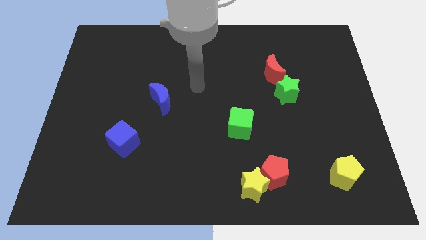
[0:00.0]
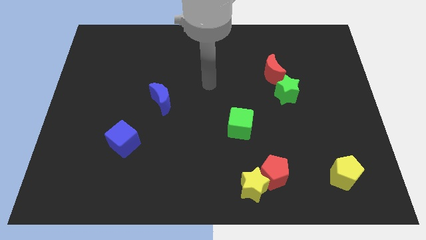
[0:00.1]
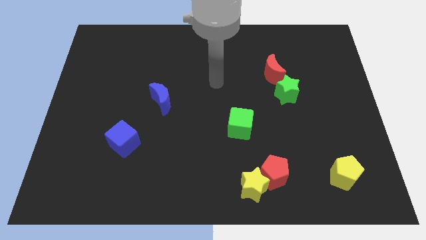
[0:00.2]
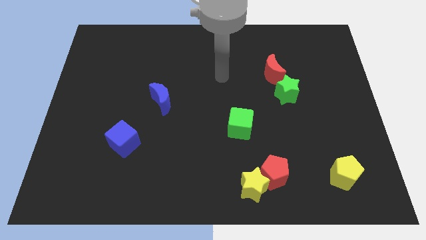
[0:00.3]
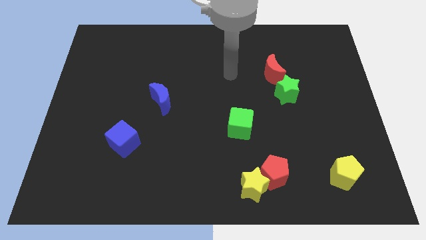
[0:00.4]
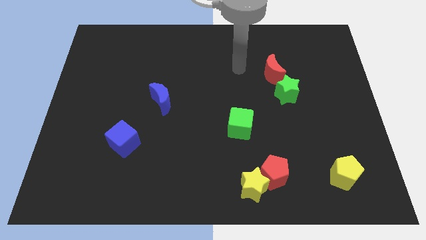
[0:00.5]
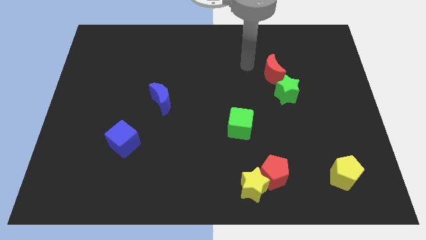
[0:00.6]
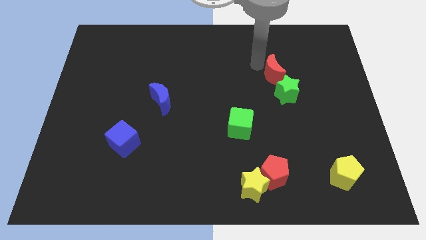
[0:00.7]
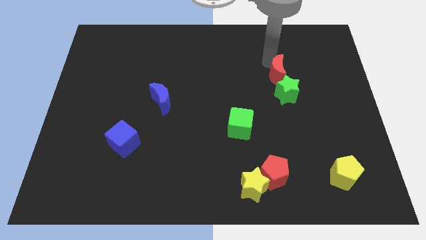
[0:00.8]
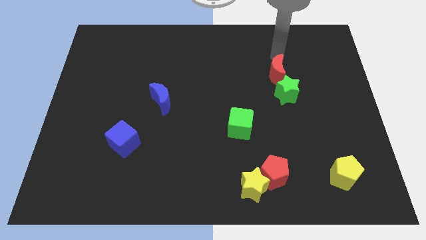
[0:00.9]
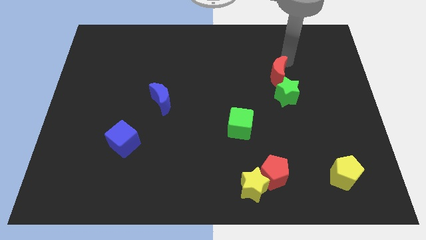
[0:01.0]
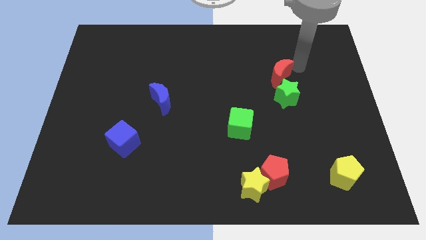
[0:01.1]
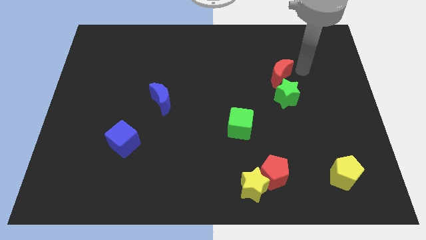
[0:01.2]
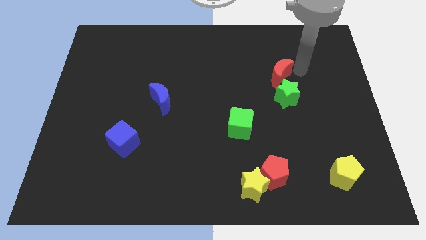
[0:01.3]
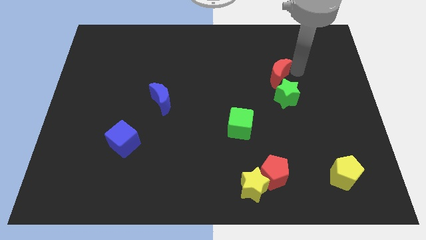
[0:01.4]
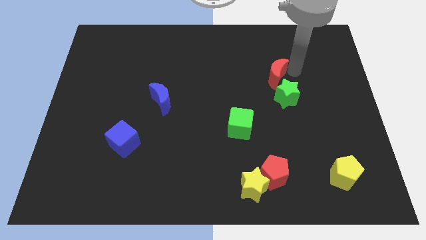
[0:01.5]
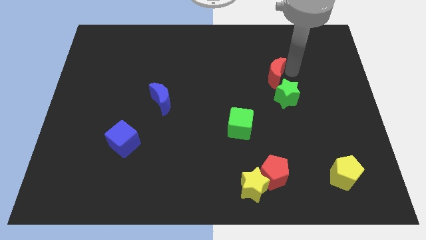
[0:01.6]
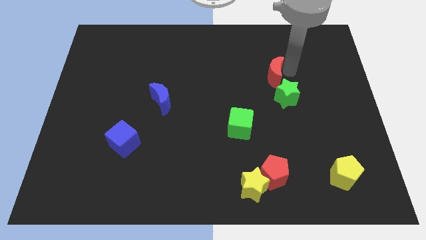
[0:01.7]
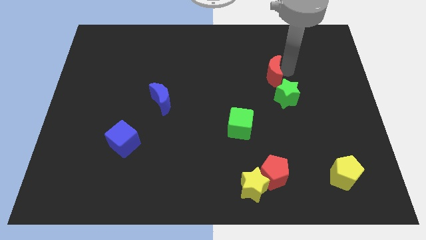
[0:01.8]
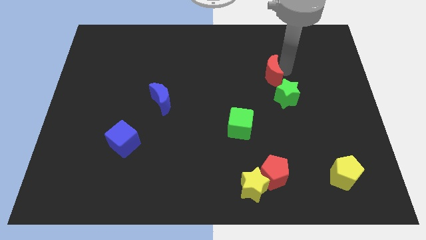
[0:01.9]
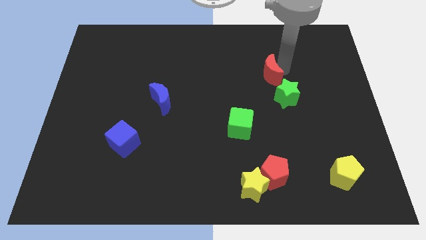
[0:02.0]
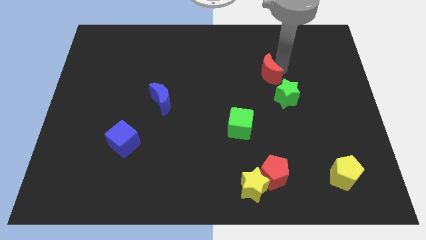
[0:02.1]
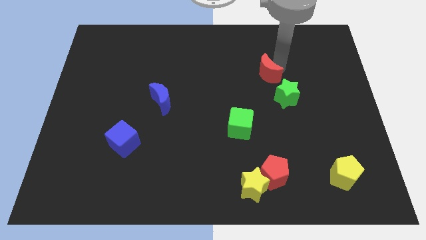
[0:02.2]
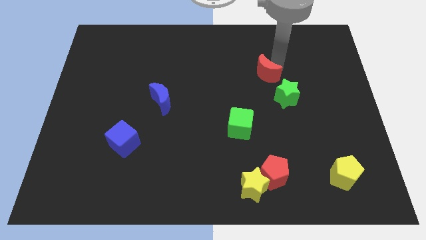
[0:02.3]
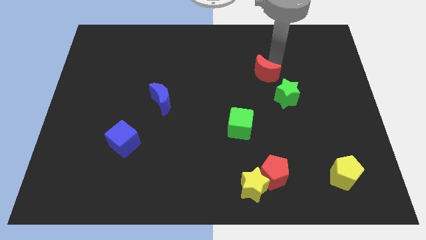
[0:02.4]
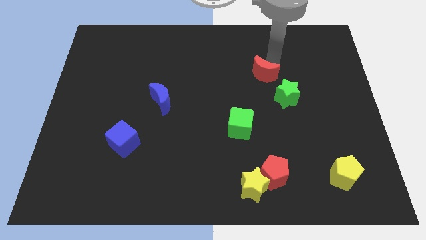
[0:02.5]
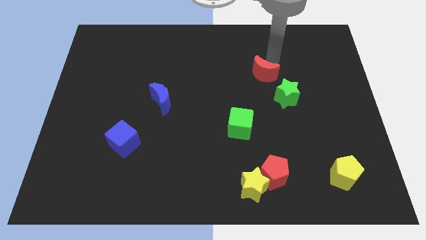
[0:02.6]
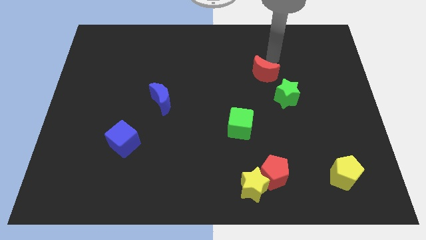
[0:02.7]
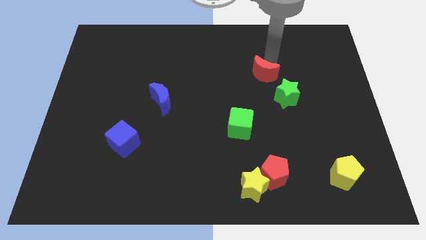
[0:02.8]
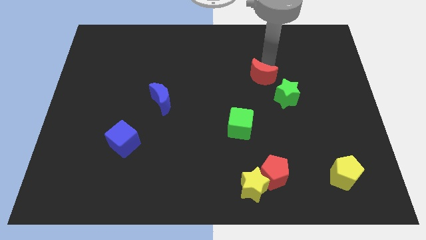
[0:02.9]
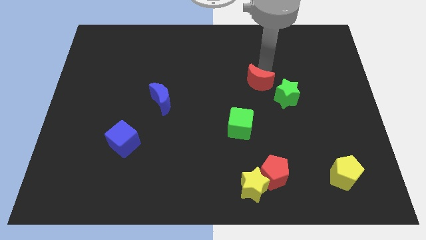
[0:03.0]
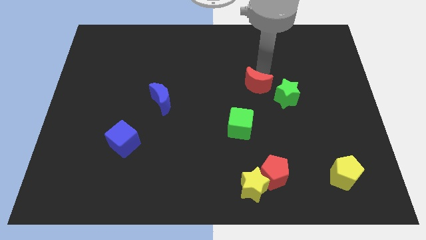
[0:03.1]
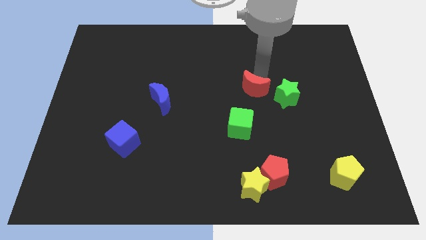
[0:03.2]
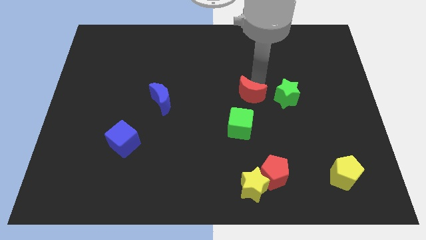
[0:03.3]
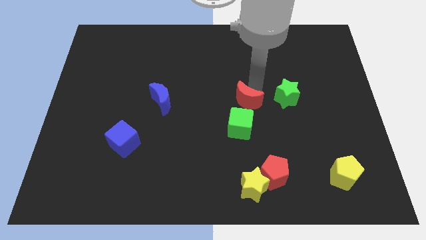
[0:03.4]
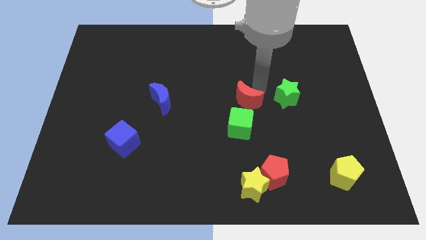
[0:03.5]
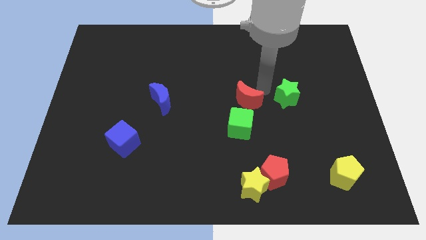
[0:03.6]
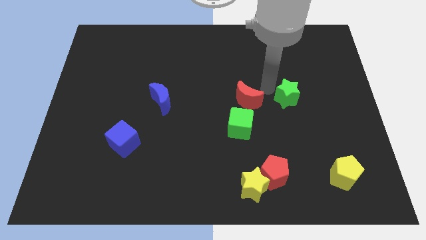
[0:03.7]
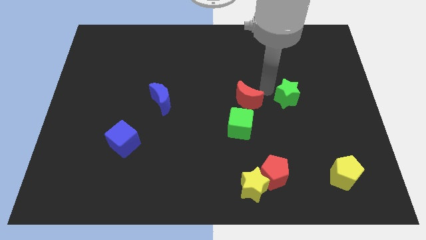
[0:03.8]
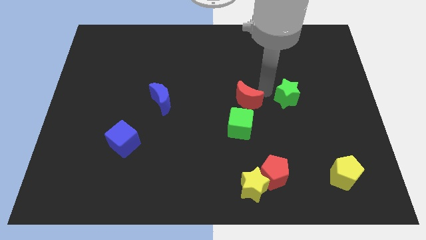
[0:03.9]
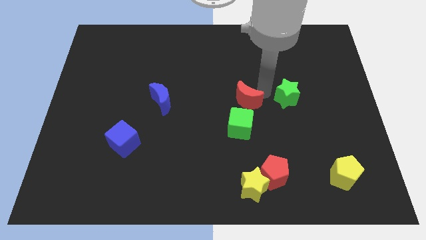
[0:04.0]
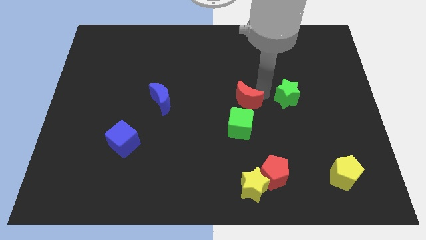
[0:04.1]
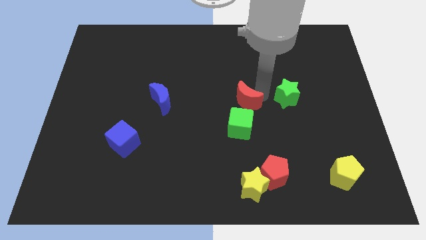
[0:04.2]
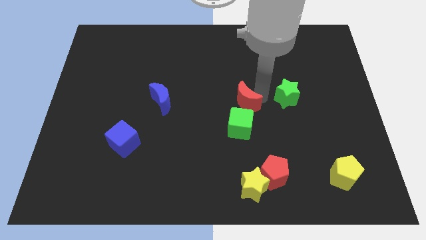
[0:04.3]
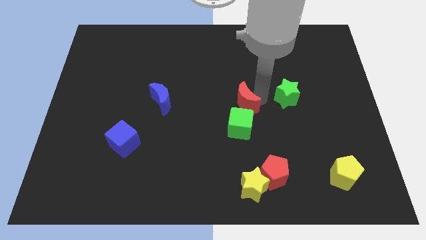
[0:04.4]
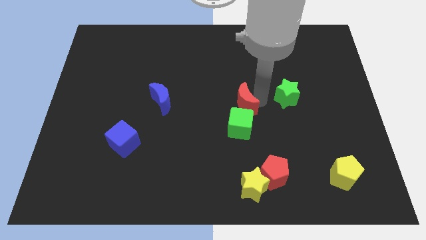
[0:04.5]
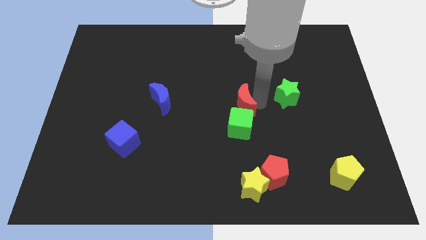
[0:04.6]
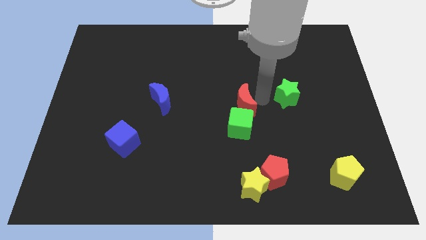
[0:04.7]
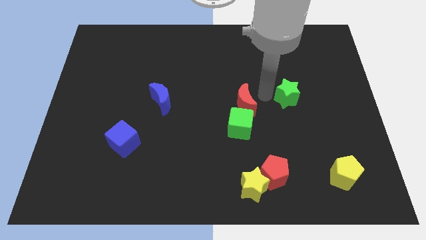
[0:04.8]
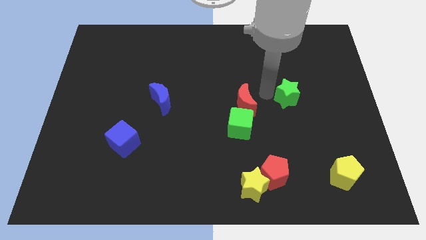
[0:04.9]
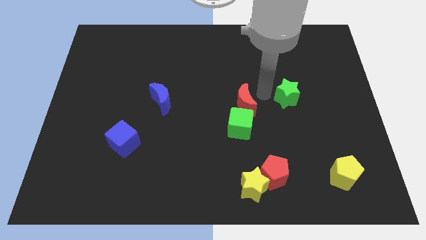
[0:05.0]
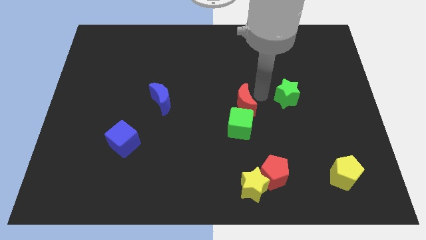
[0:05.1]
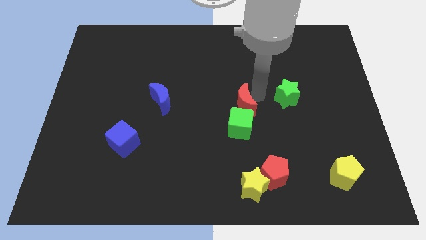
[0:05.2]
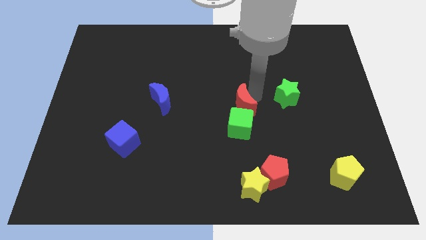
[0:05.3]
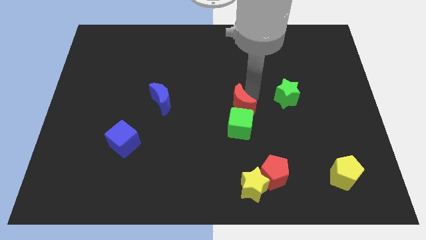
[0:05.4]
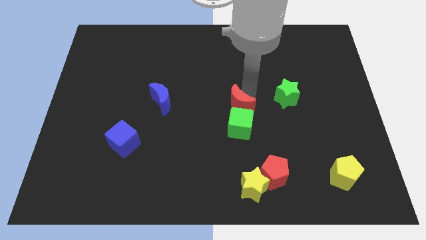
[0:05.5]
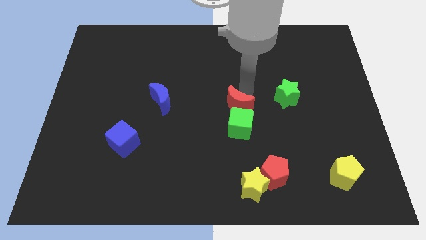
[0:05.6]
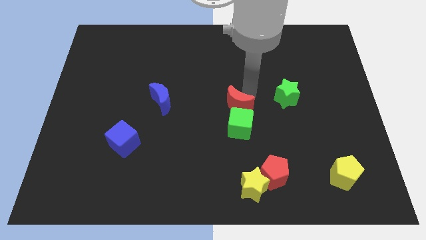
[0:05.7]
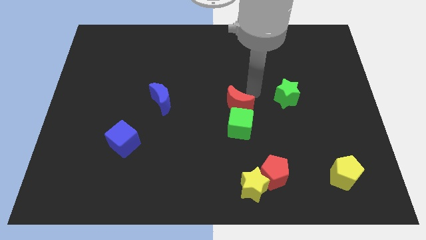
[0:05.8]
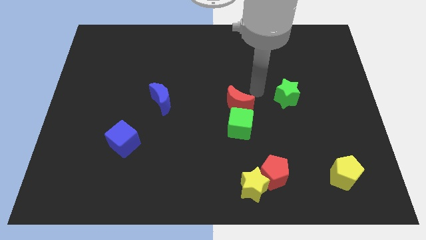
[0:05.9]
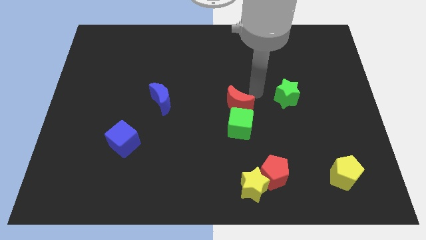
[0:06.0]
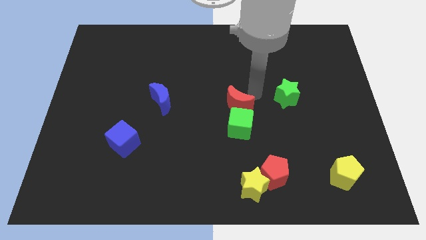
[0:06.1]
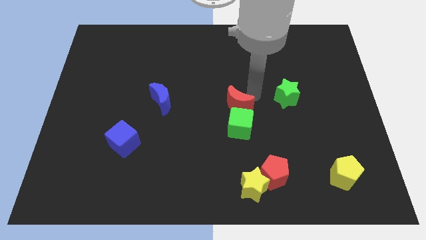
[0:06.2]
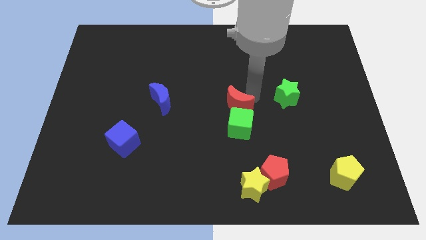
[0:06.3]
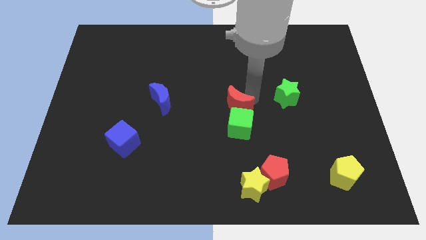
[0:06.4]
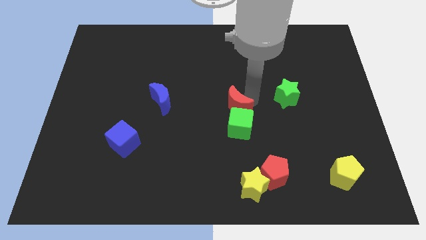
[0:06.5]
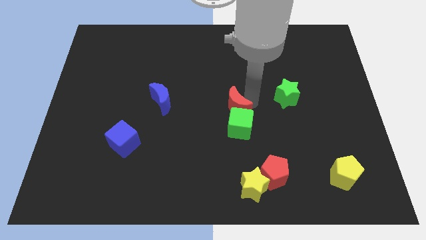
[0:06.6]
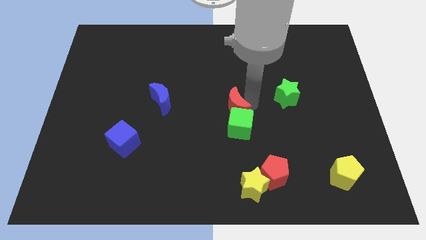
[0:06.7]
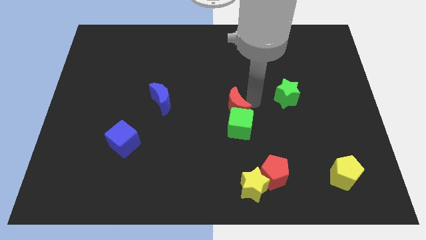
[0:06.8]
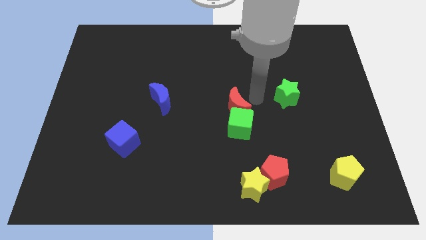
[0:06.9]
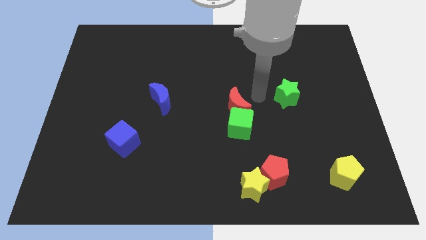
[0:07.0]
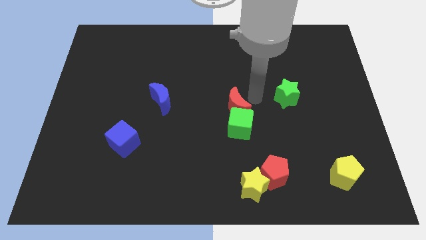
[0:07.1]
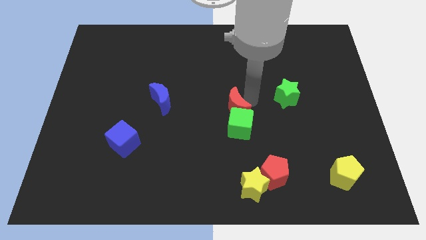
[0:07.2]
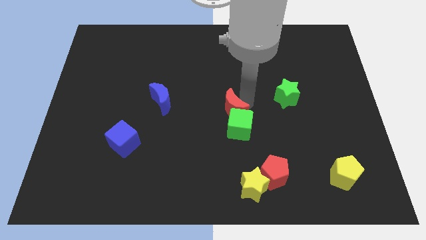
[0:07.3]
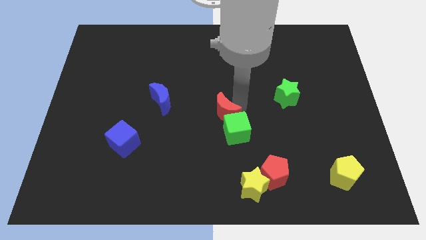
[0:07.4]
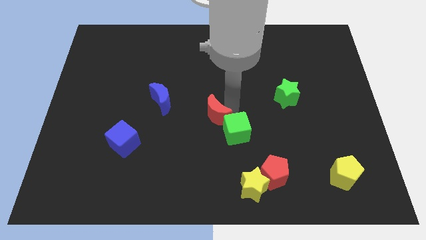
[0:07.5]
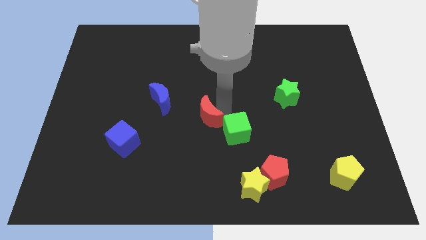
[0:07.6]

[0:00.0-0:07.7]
slide the red moon diagonally down and to the left

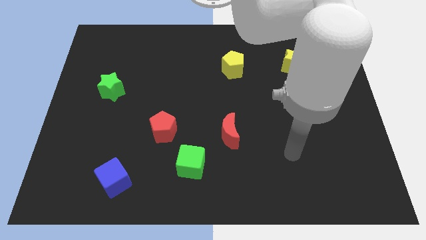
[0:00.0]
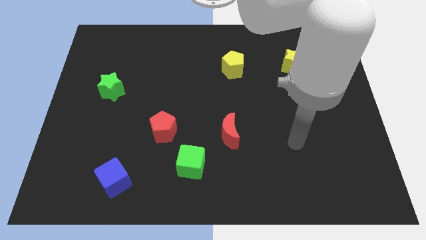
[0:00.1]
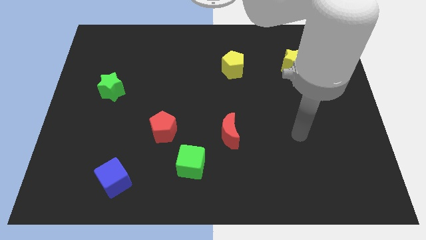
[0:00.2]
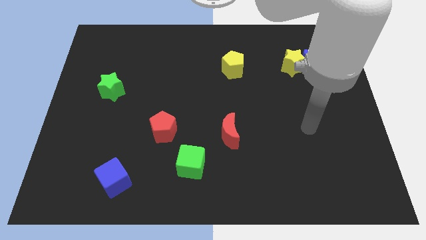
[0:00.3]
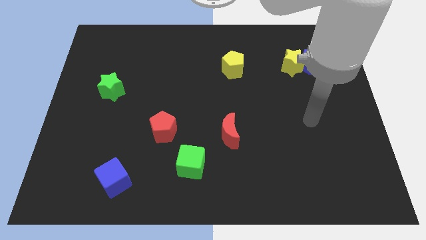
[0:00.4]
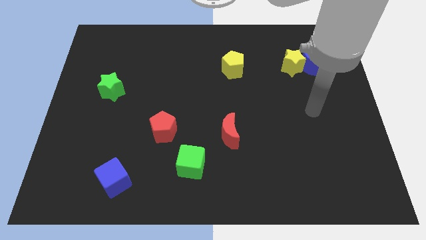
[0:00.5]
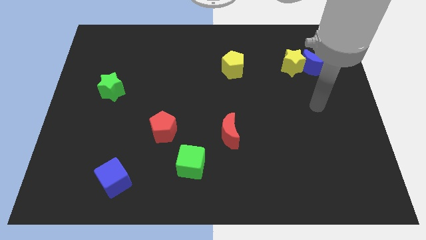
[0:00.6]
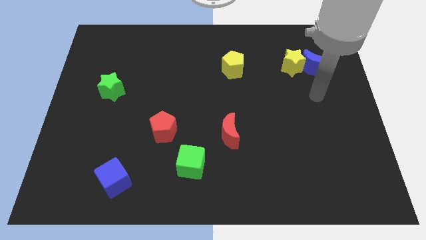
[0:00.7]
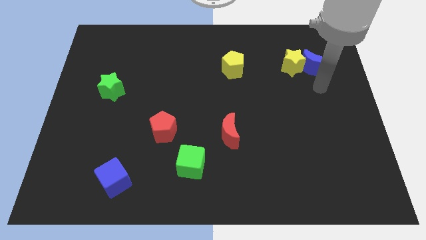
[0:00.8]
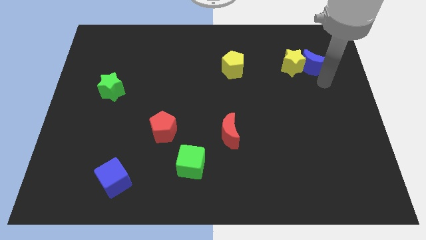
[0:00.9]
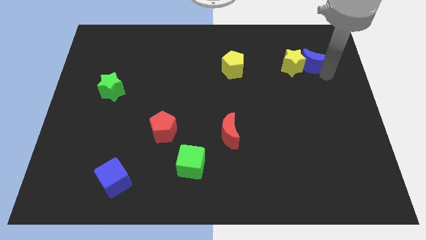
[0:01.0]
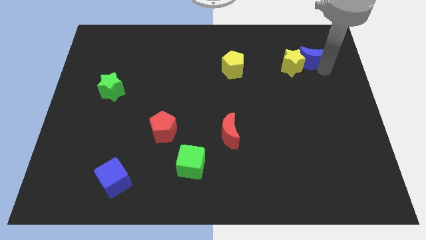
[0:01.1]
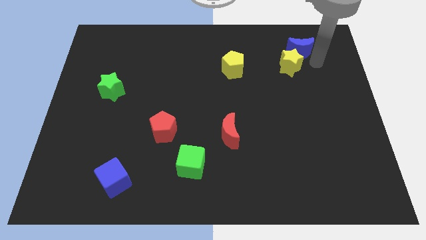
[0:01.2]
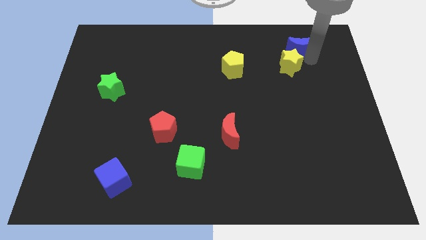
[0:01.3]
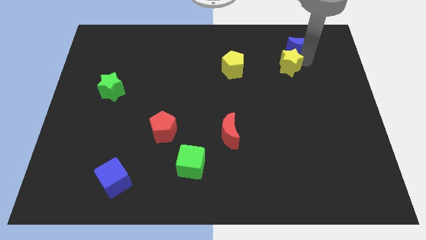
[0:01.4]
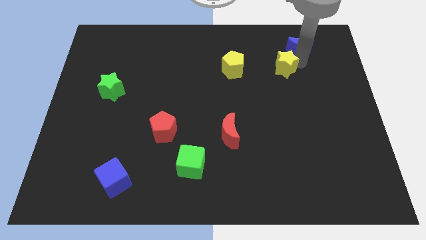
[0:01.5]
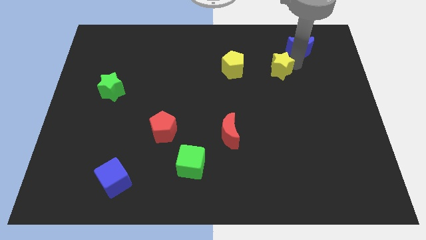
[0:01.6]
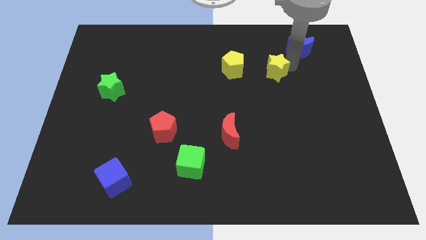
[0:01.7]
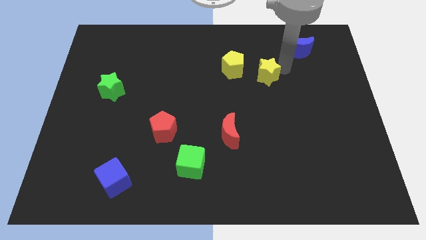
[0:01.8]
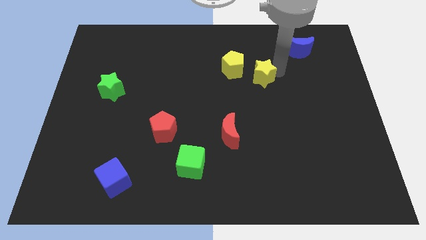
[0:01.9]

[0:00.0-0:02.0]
slide the yellow star a bit to the left
